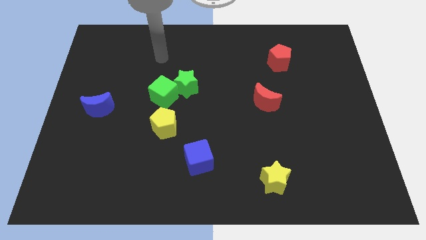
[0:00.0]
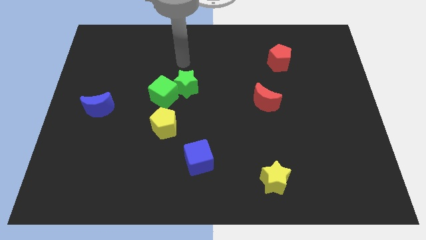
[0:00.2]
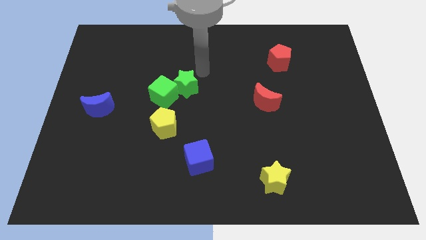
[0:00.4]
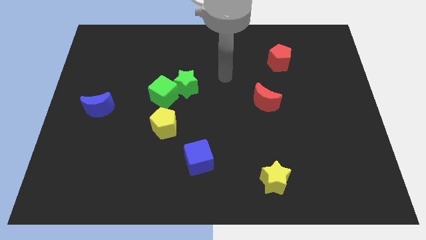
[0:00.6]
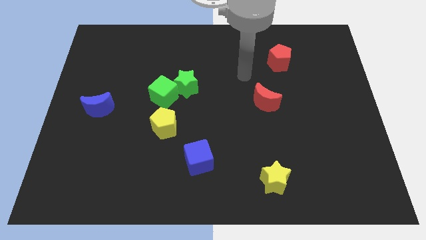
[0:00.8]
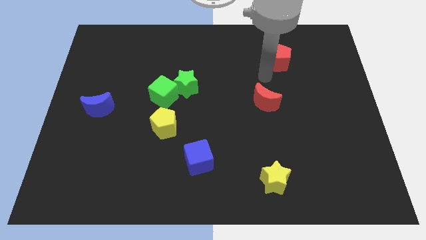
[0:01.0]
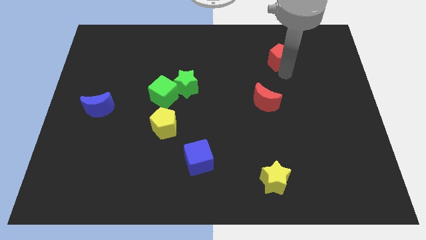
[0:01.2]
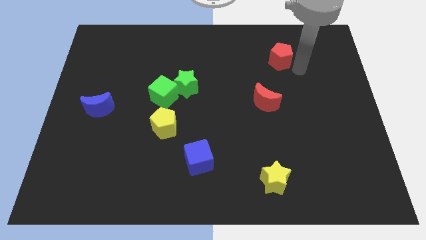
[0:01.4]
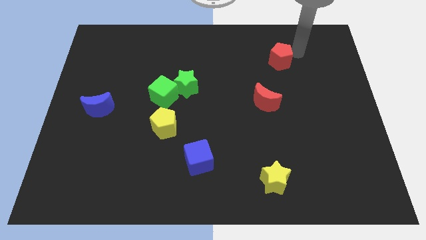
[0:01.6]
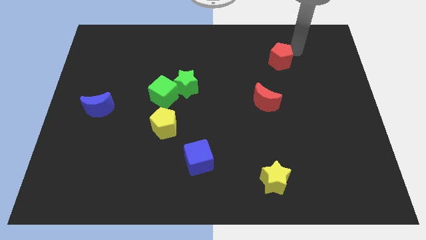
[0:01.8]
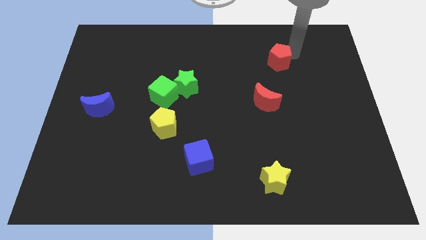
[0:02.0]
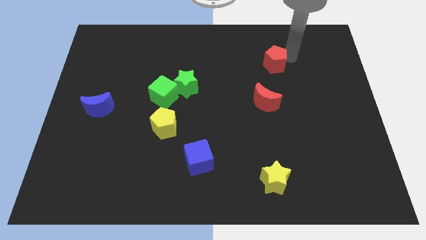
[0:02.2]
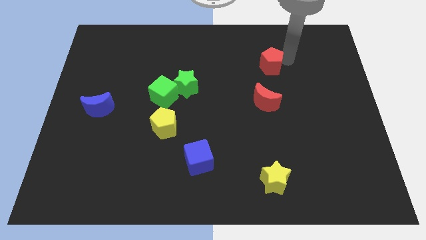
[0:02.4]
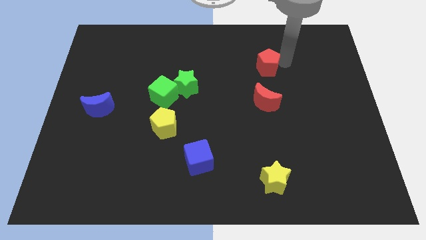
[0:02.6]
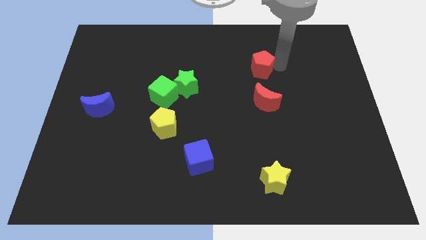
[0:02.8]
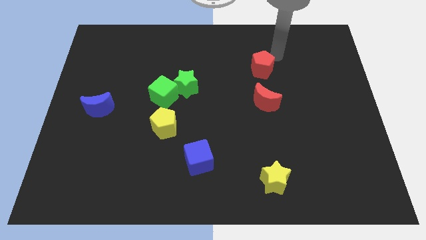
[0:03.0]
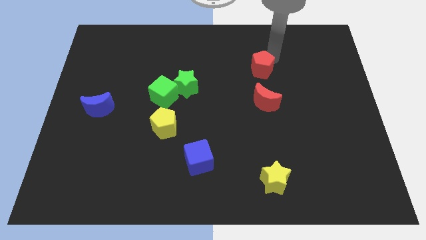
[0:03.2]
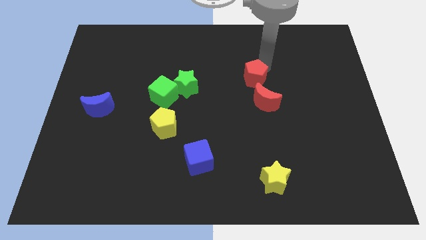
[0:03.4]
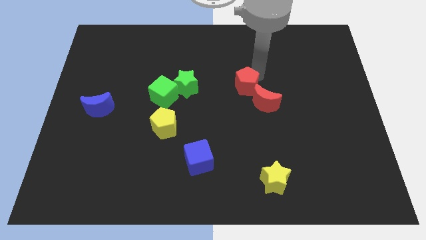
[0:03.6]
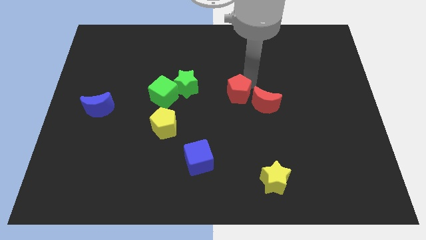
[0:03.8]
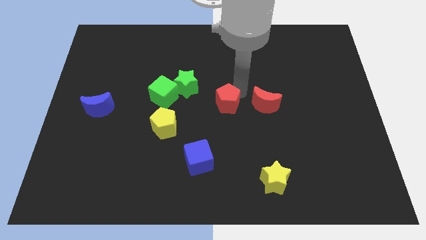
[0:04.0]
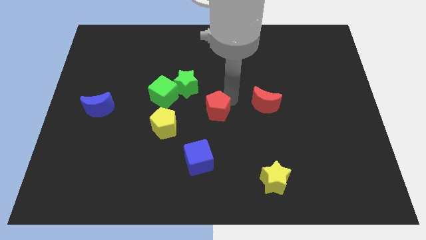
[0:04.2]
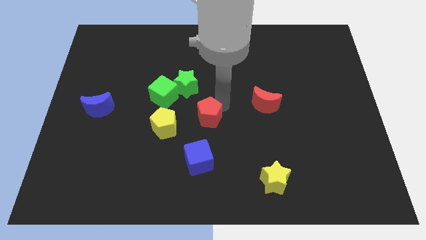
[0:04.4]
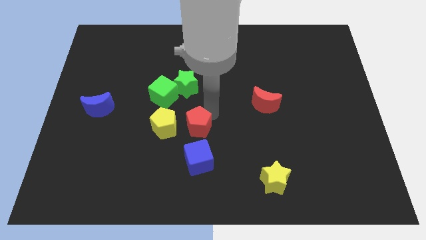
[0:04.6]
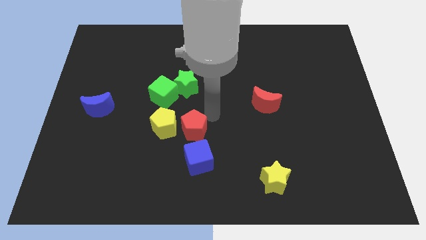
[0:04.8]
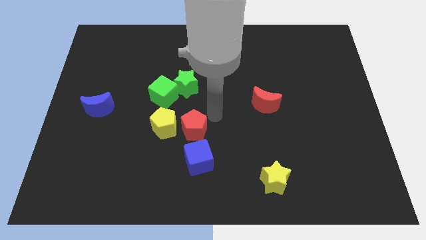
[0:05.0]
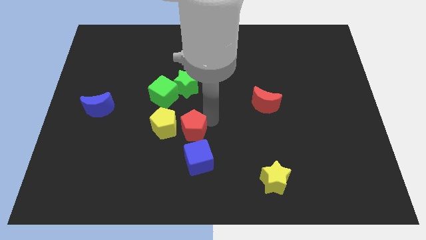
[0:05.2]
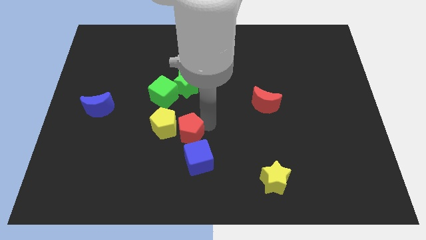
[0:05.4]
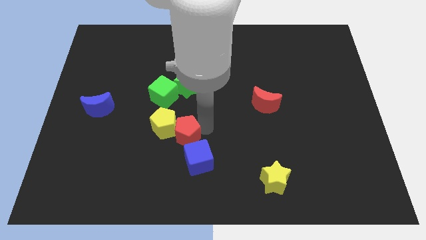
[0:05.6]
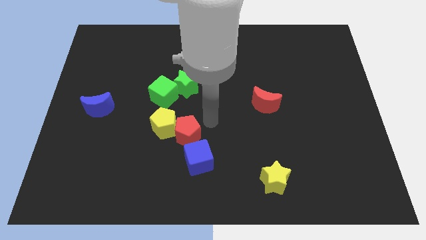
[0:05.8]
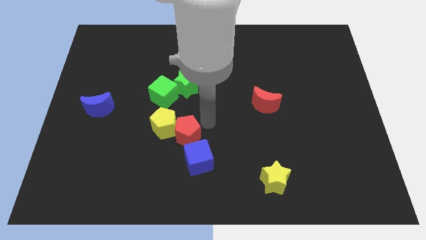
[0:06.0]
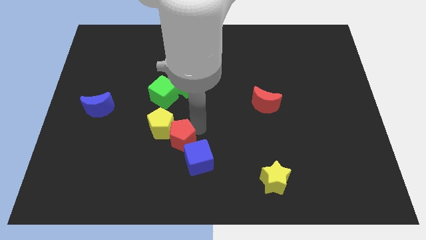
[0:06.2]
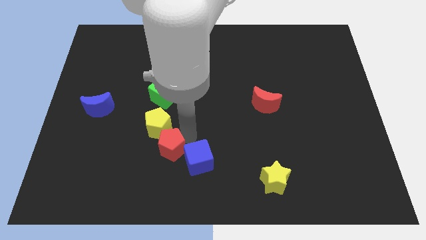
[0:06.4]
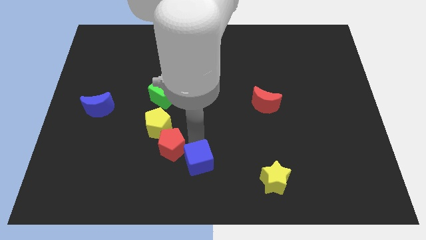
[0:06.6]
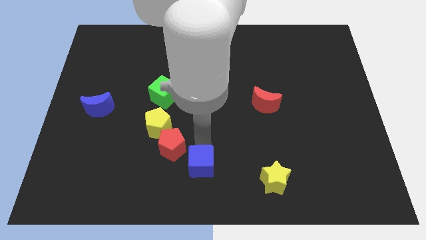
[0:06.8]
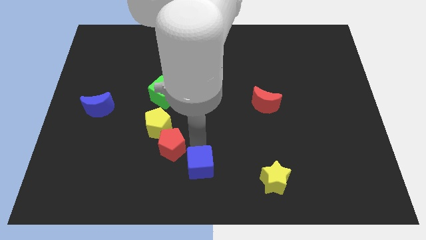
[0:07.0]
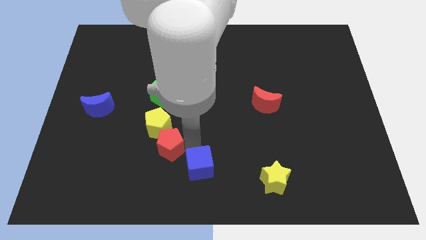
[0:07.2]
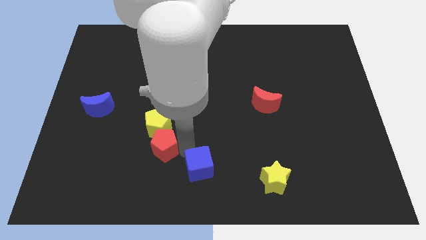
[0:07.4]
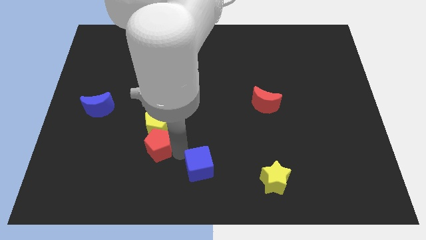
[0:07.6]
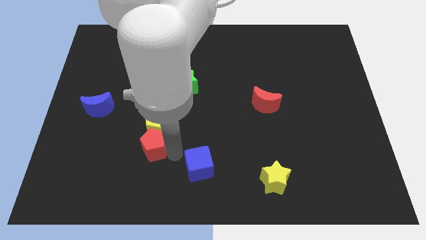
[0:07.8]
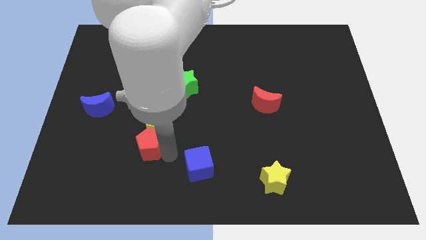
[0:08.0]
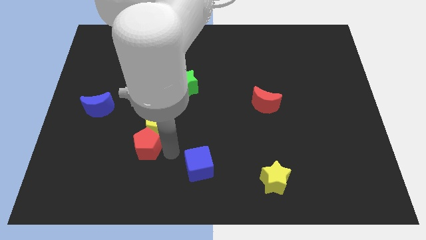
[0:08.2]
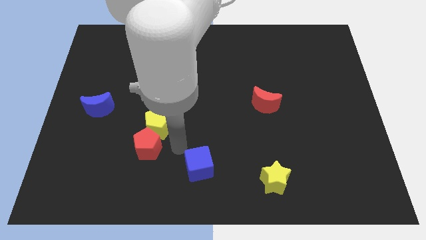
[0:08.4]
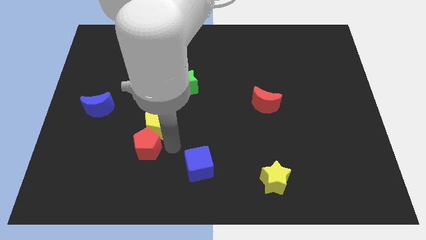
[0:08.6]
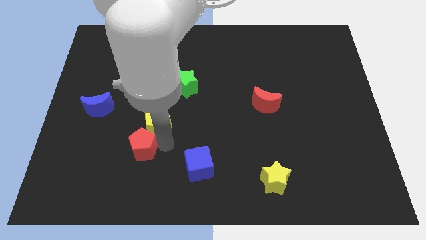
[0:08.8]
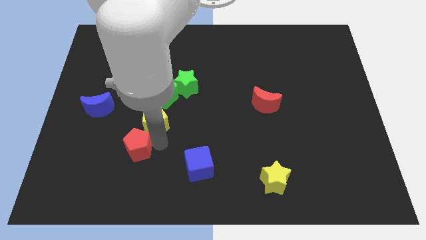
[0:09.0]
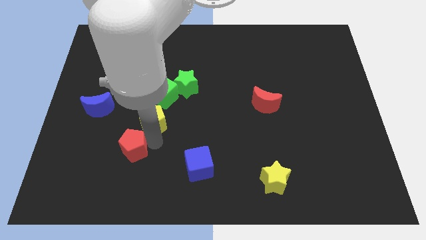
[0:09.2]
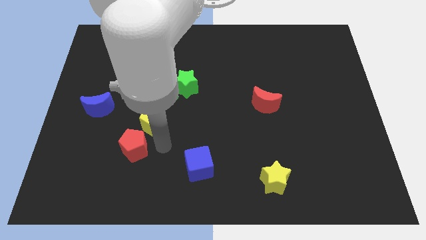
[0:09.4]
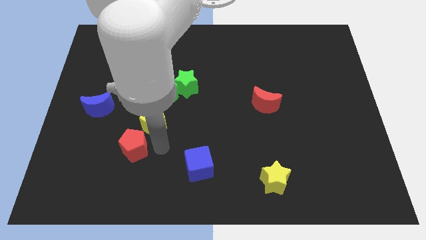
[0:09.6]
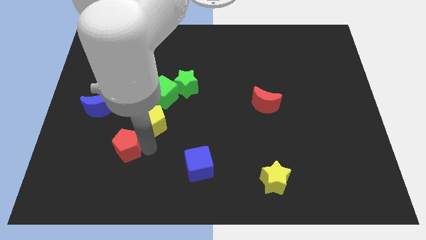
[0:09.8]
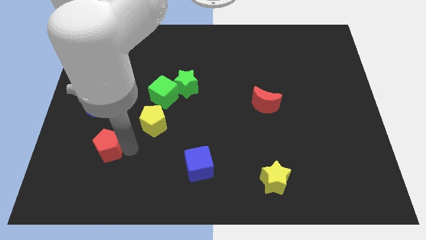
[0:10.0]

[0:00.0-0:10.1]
put the red pentagon below the blue moon

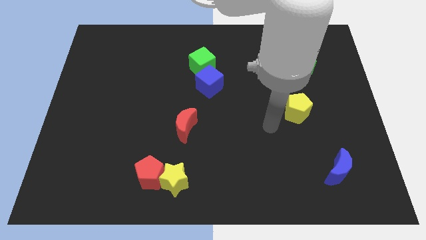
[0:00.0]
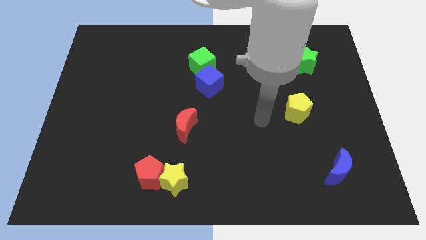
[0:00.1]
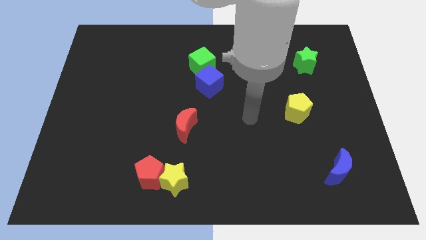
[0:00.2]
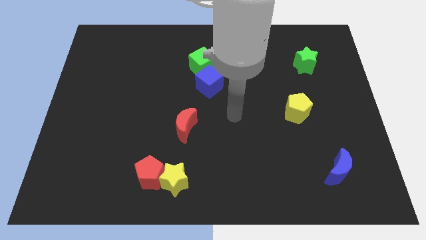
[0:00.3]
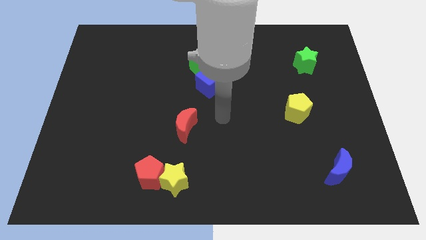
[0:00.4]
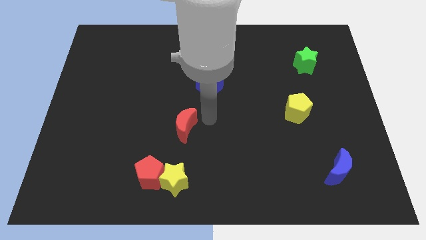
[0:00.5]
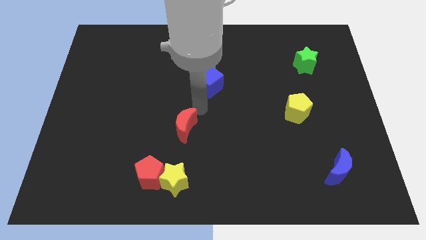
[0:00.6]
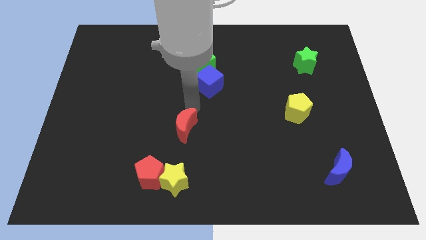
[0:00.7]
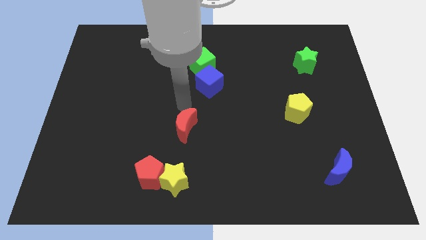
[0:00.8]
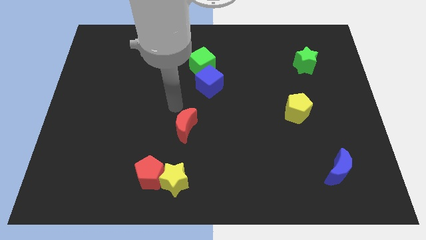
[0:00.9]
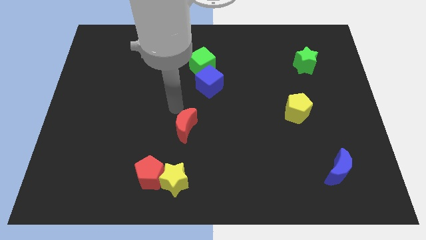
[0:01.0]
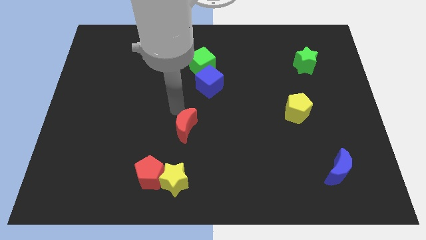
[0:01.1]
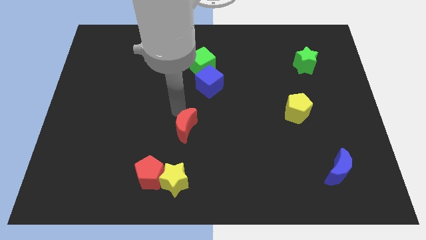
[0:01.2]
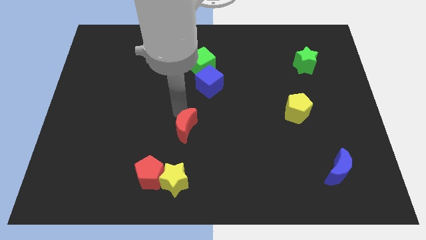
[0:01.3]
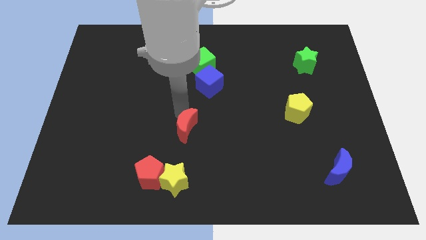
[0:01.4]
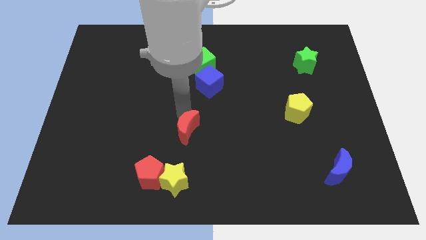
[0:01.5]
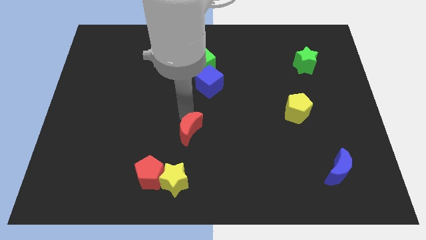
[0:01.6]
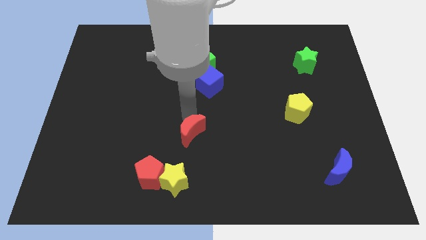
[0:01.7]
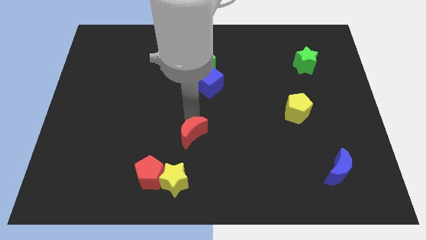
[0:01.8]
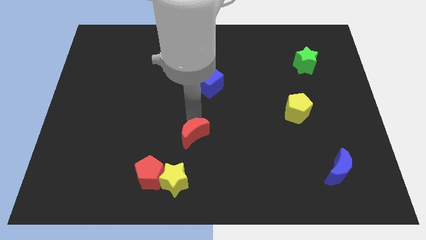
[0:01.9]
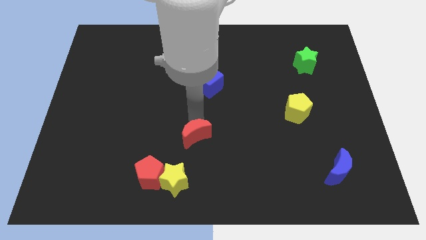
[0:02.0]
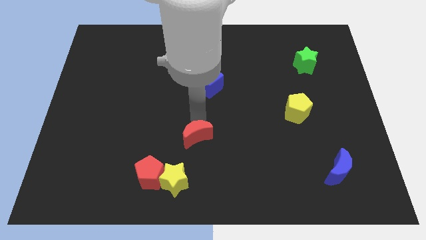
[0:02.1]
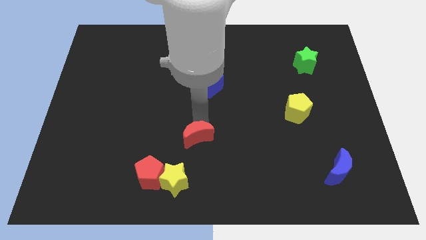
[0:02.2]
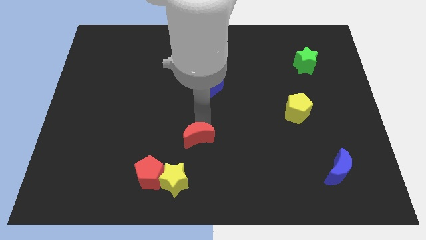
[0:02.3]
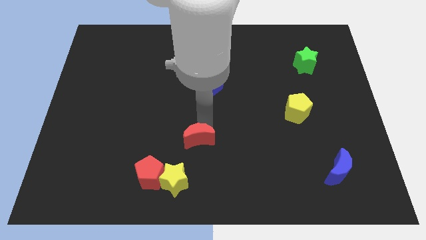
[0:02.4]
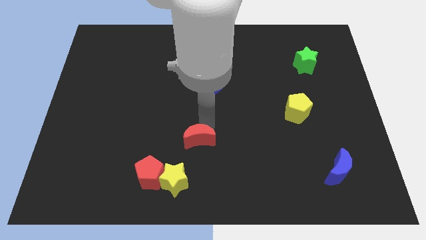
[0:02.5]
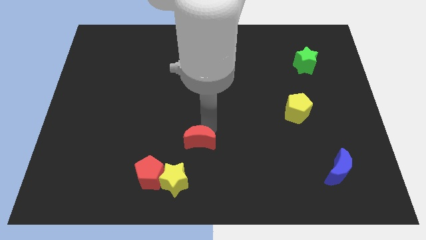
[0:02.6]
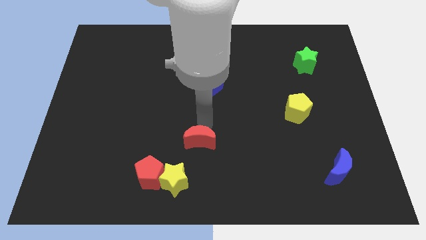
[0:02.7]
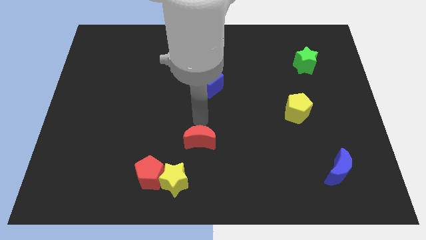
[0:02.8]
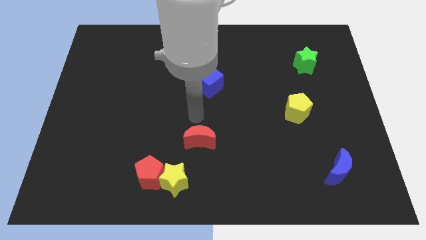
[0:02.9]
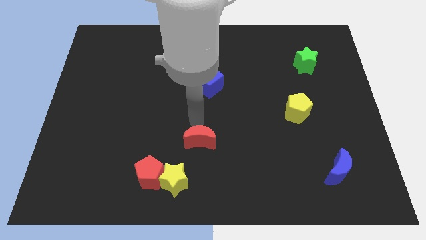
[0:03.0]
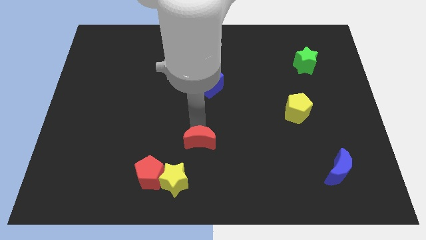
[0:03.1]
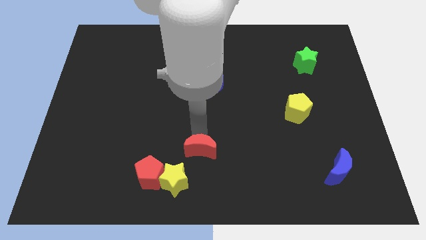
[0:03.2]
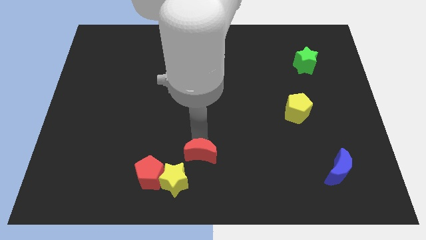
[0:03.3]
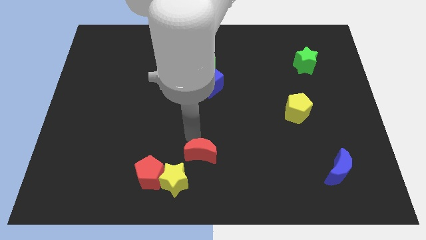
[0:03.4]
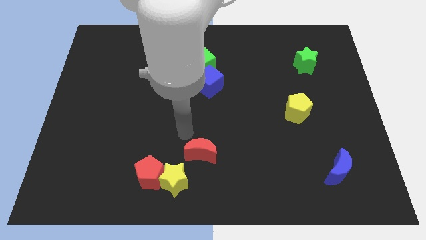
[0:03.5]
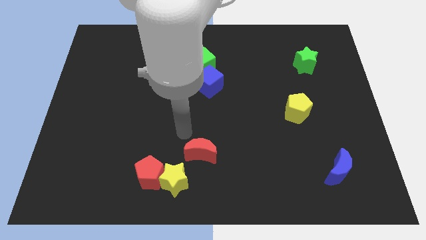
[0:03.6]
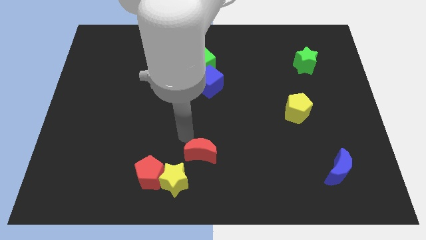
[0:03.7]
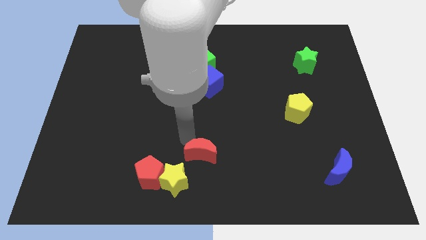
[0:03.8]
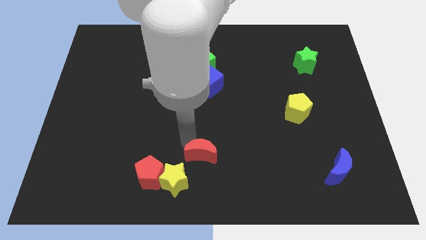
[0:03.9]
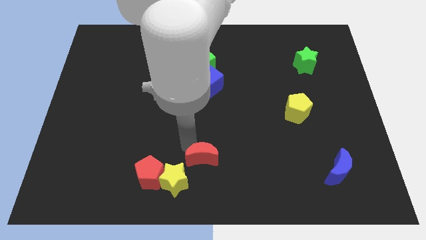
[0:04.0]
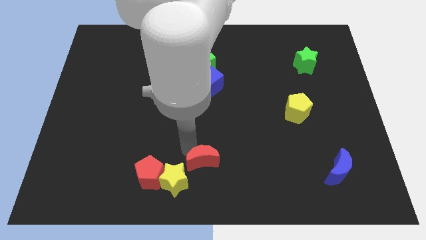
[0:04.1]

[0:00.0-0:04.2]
push the red moon to the right side of the yellow star
